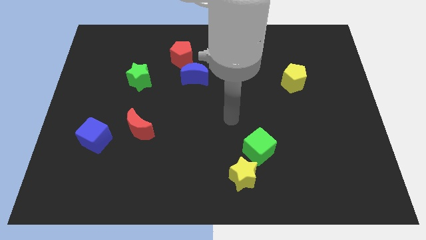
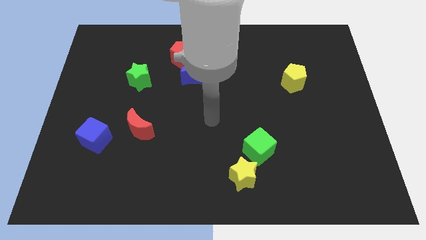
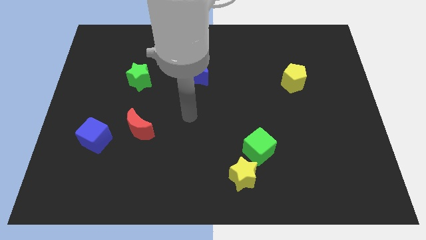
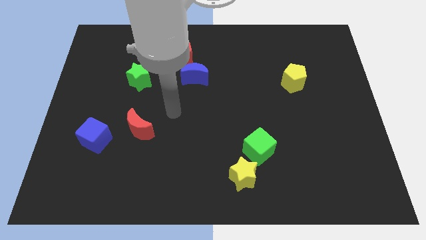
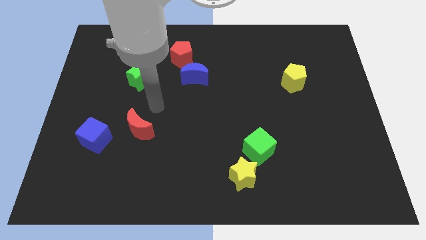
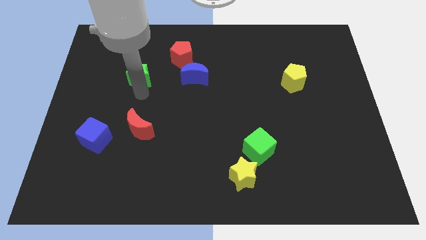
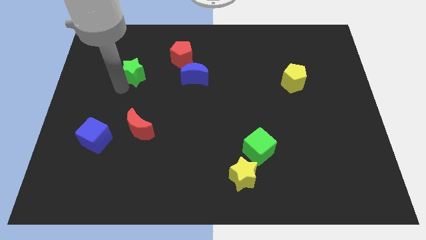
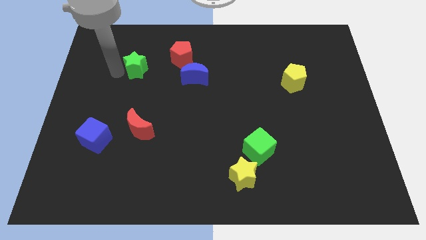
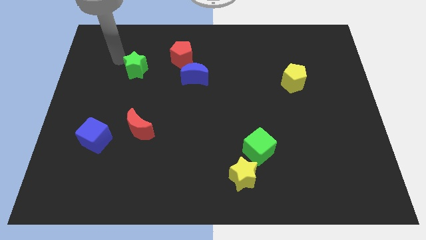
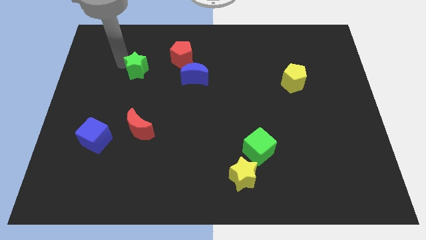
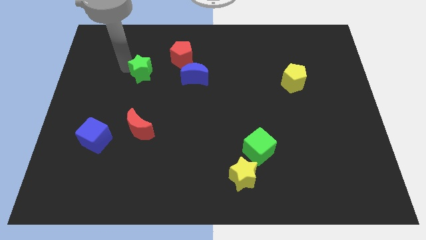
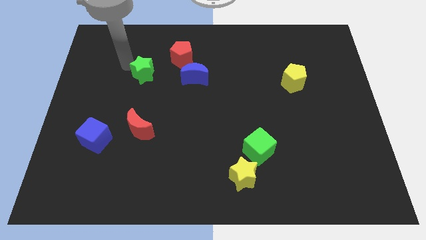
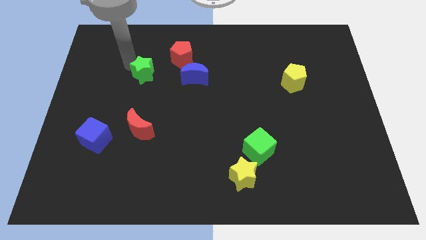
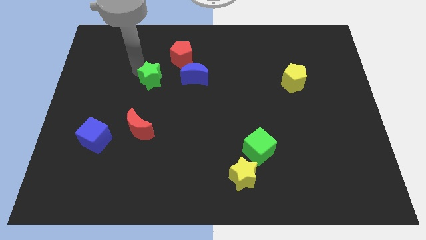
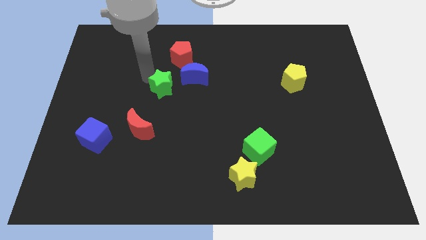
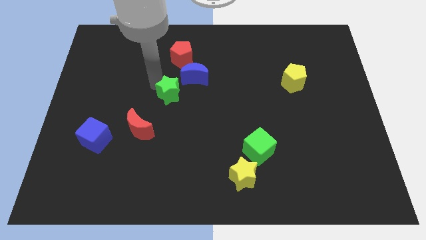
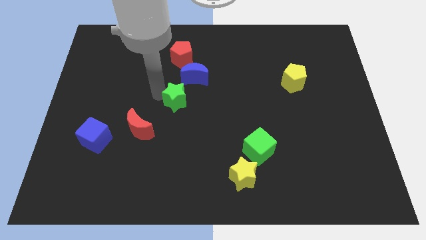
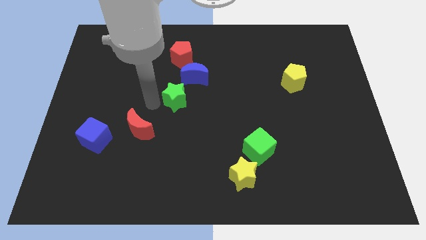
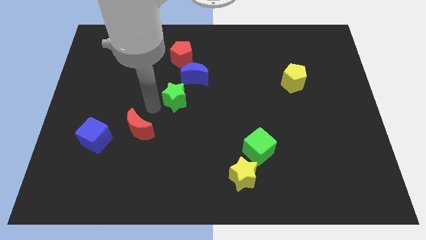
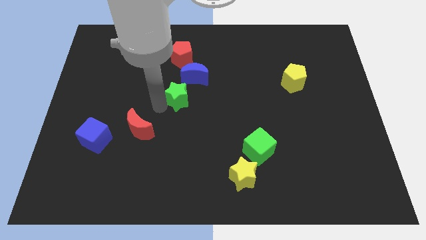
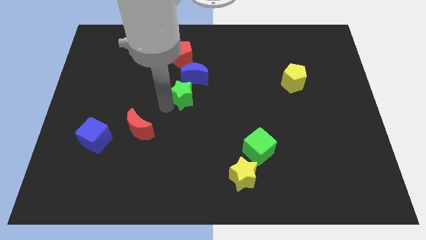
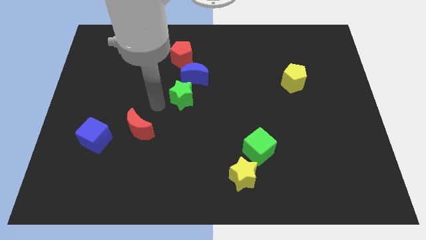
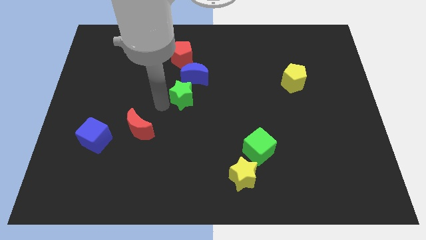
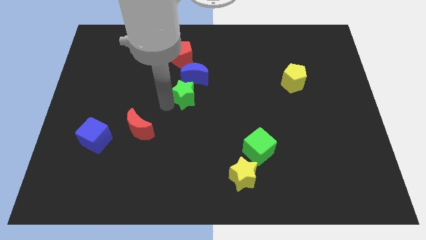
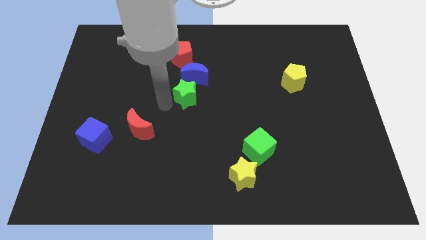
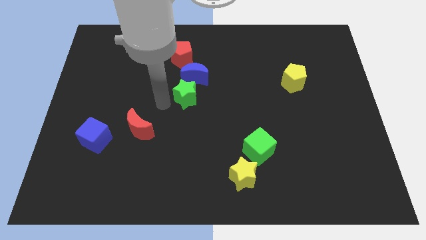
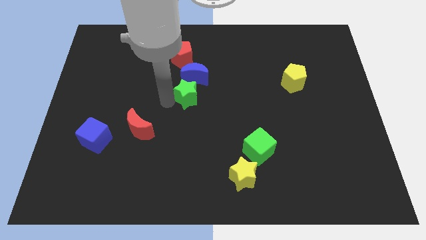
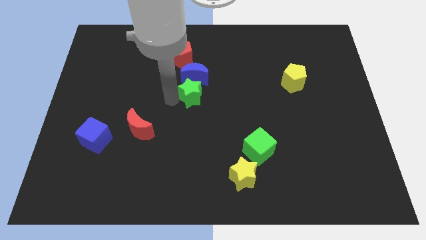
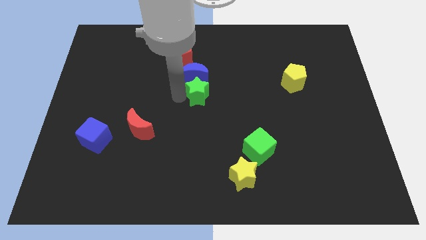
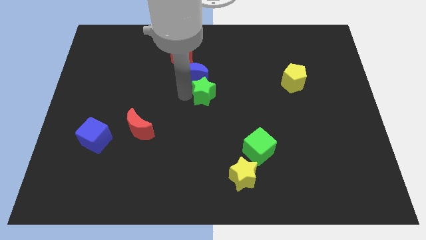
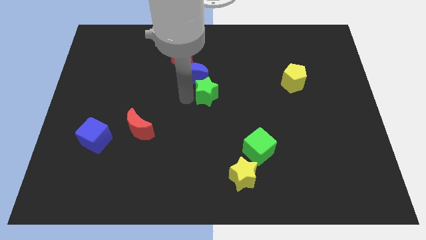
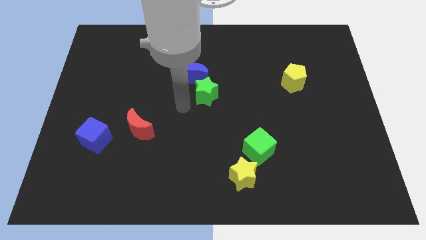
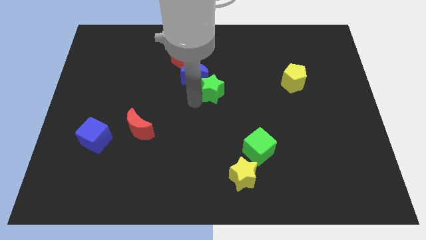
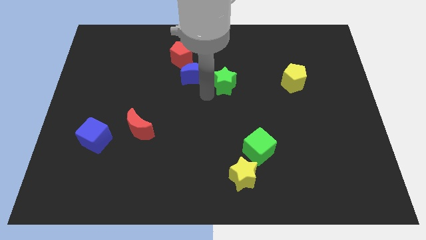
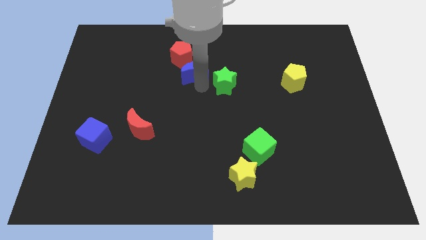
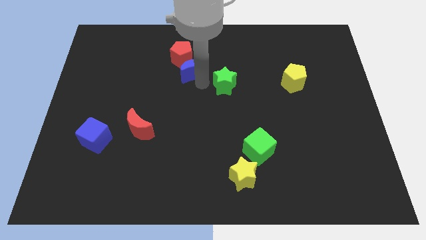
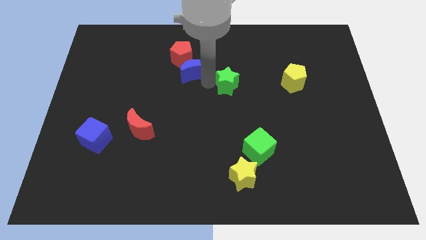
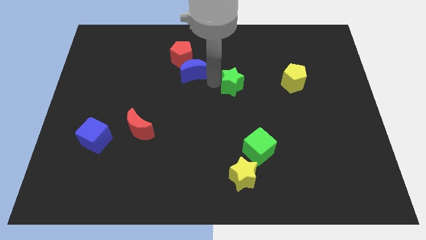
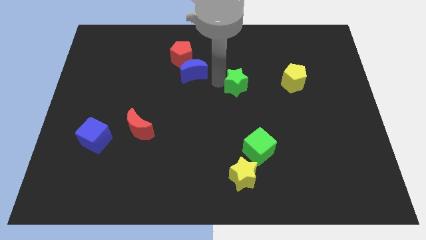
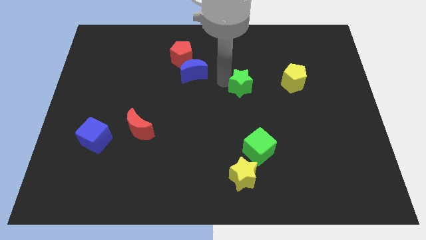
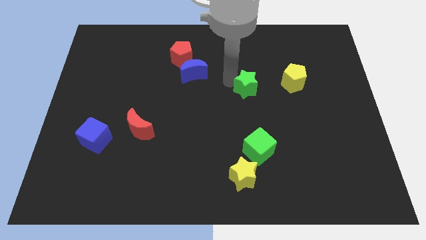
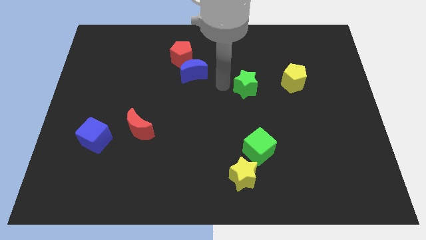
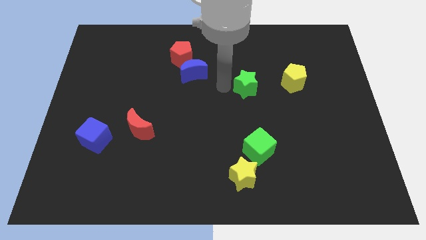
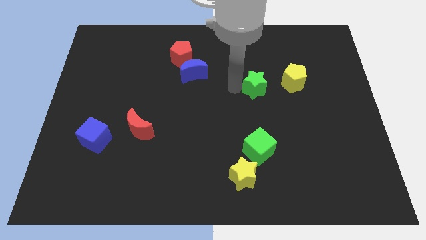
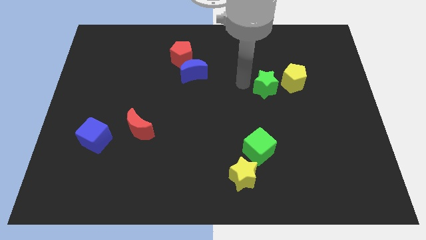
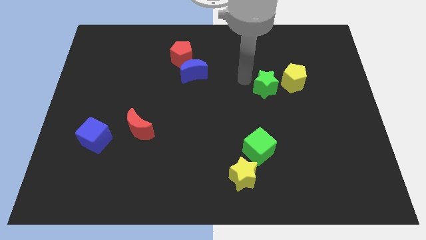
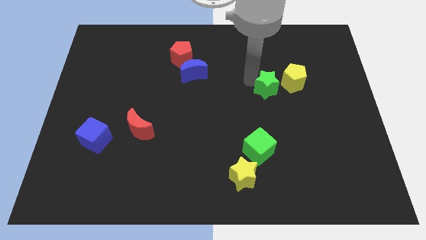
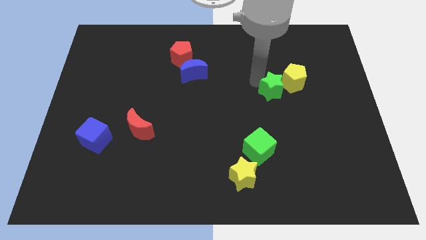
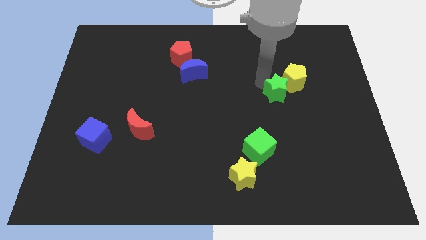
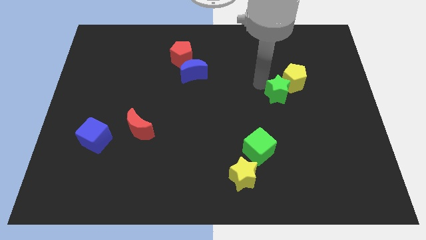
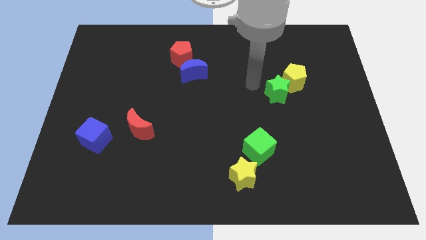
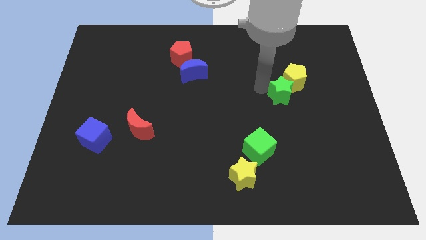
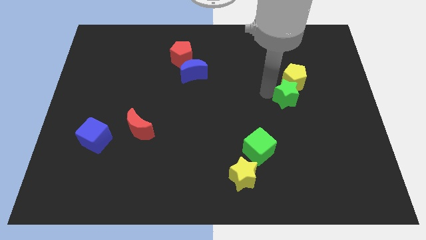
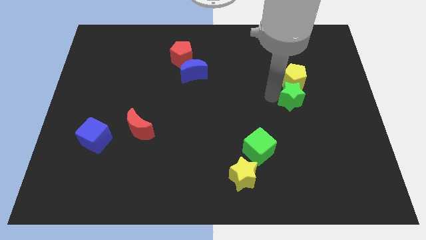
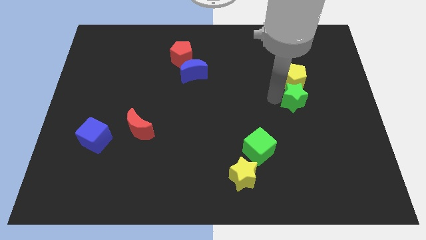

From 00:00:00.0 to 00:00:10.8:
push the green star to the bottom right side of the yellow pentagon

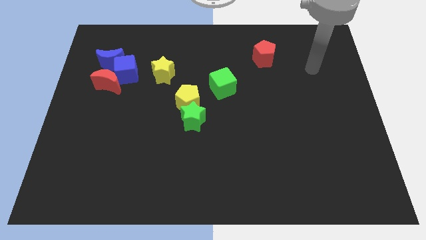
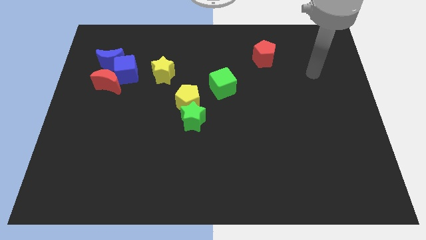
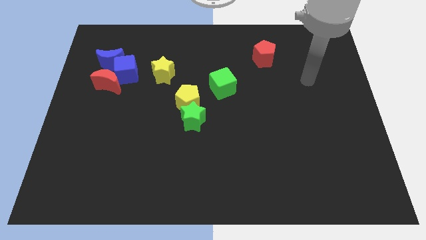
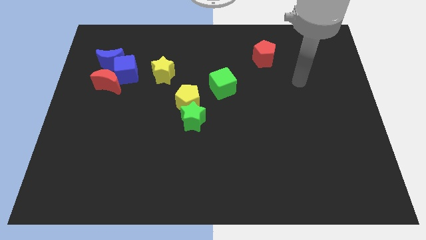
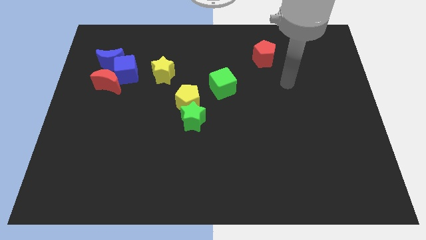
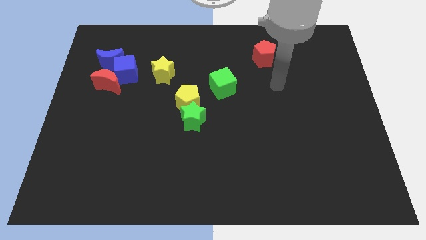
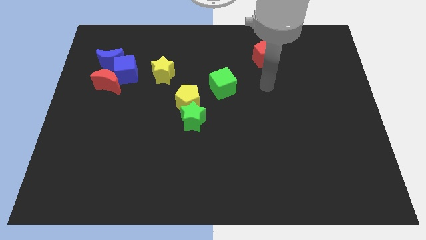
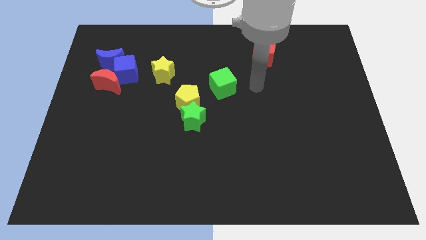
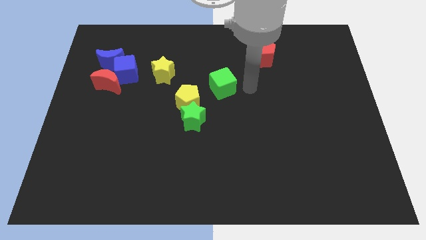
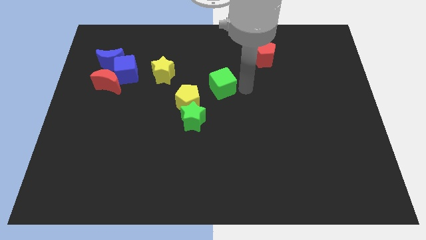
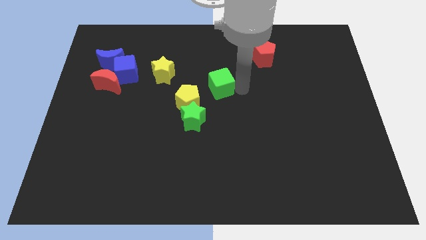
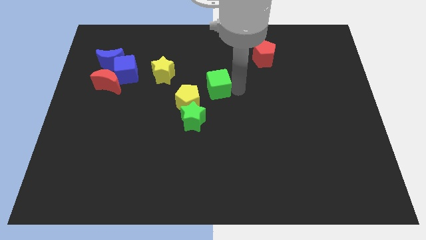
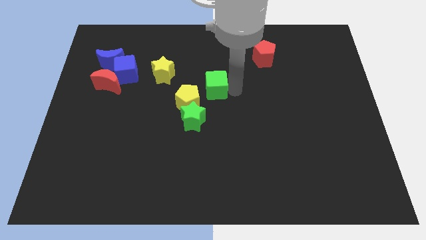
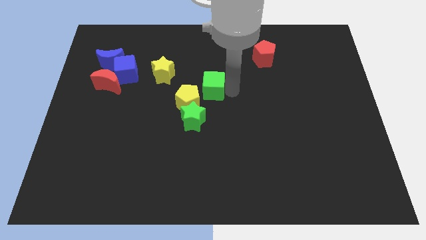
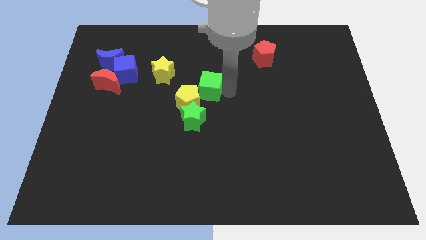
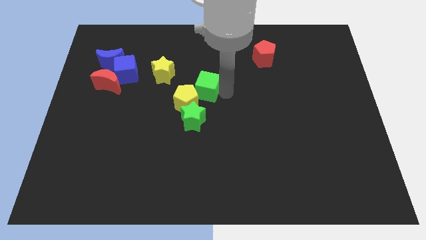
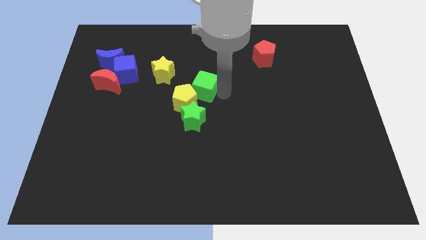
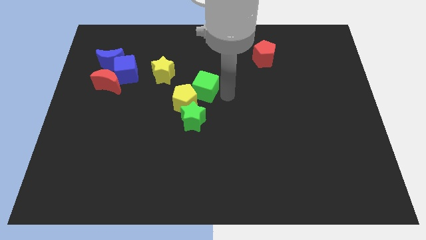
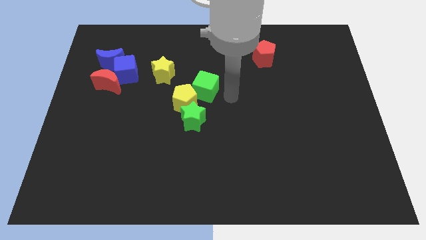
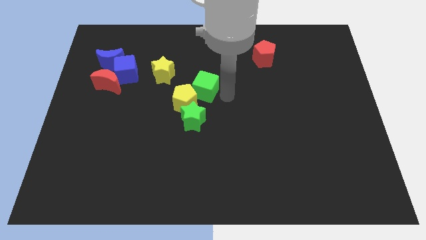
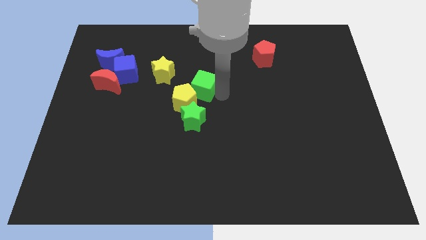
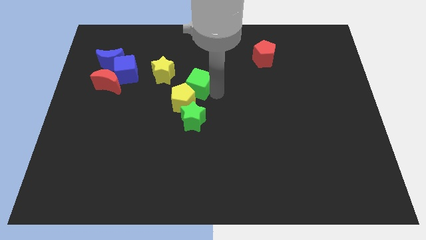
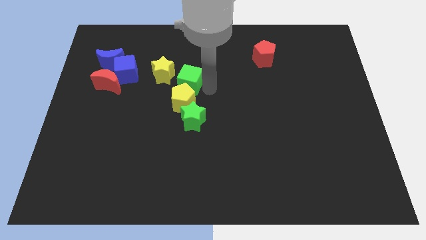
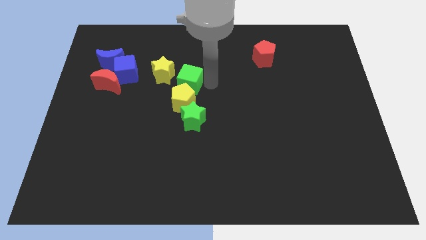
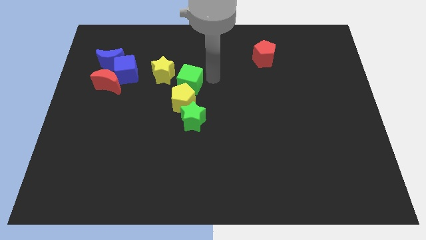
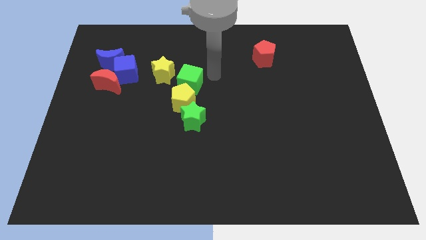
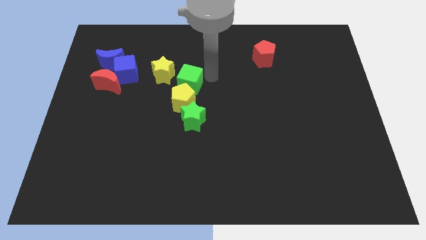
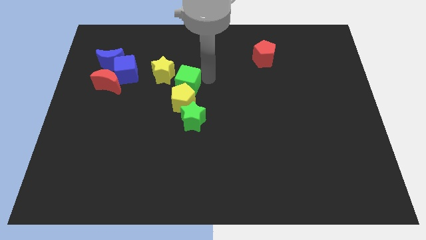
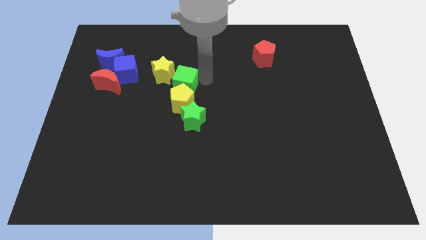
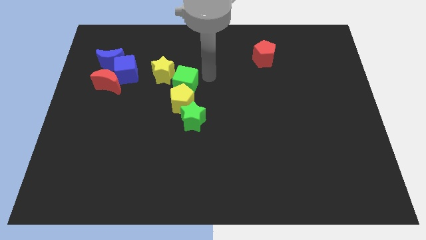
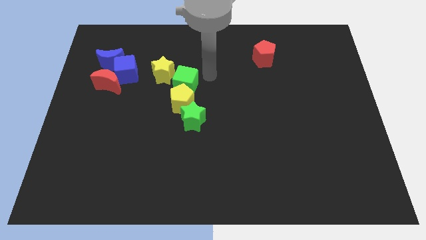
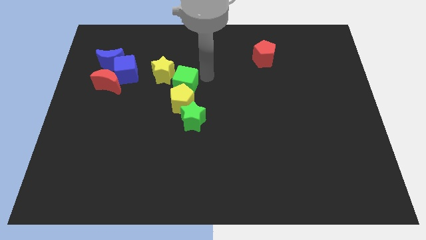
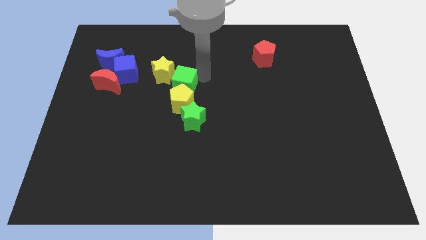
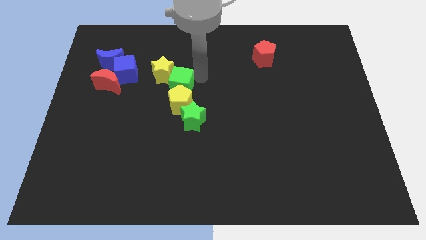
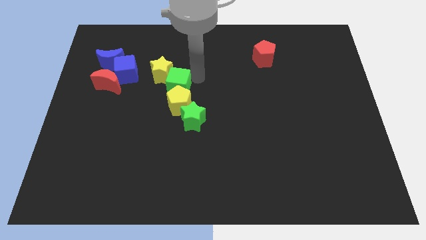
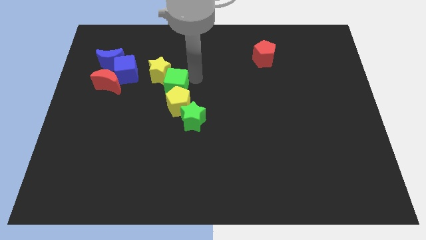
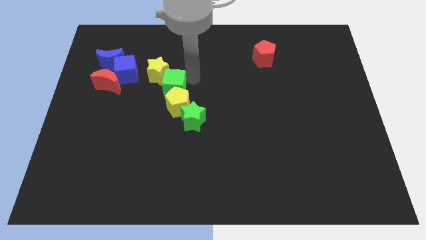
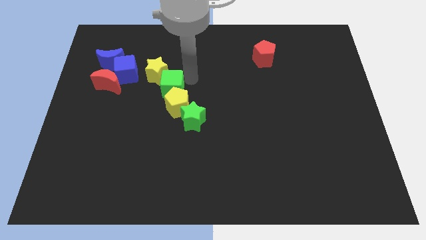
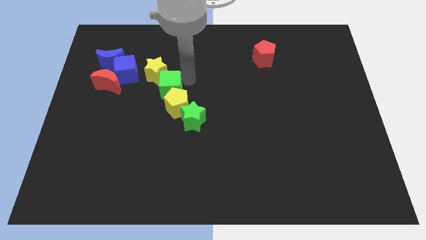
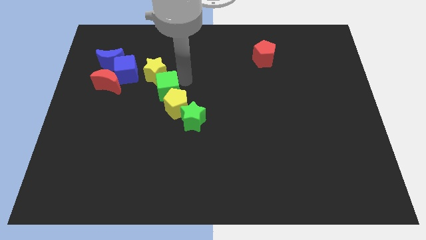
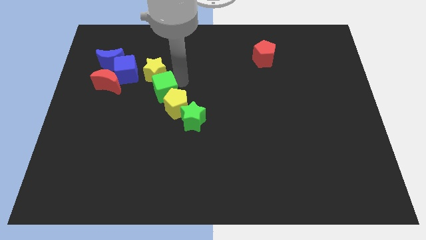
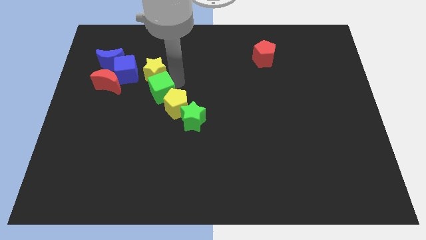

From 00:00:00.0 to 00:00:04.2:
push the green cube left of the yellow pentagon
